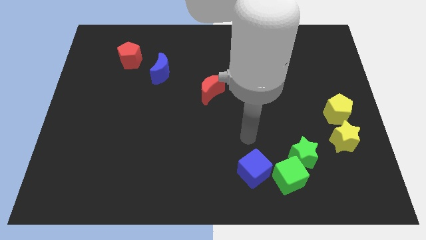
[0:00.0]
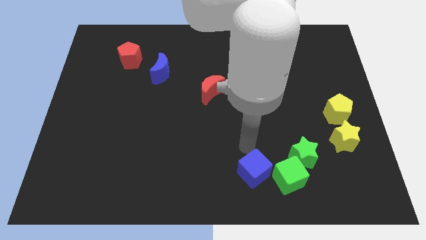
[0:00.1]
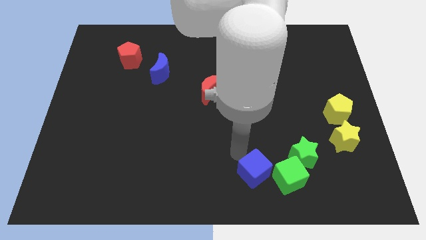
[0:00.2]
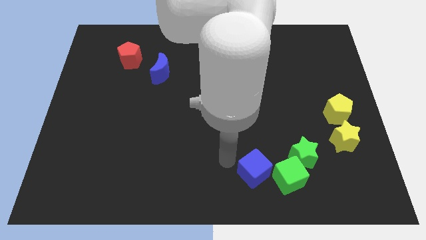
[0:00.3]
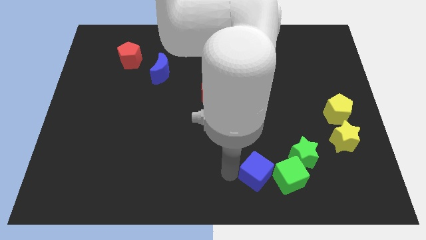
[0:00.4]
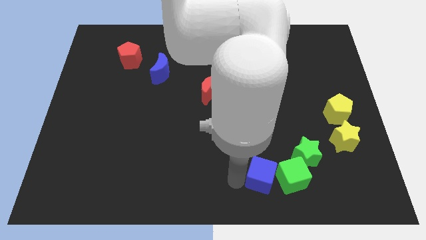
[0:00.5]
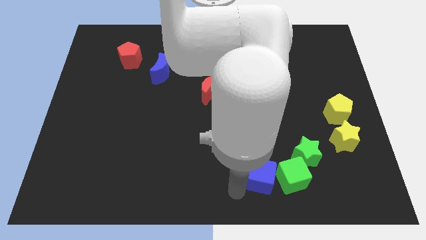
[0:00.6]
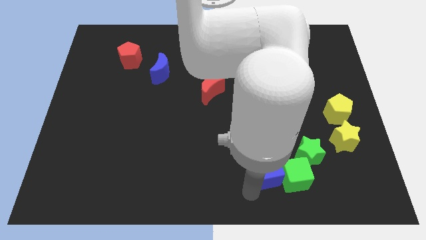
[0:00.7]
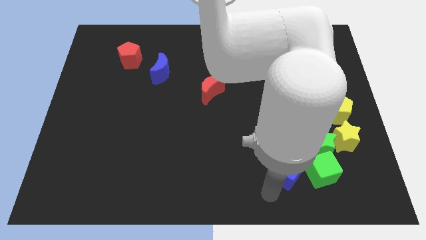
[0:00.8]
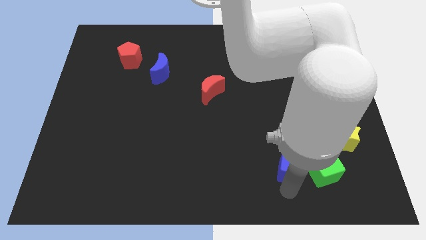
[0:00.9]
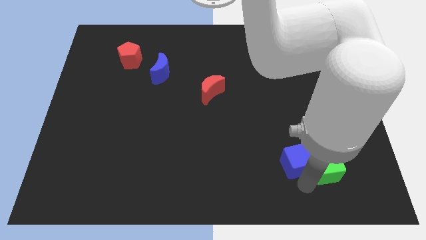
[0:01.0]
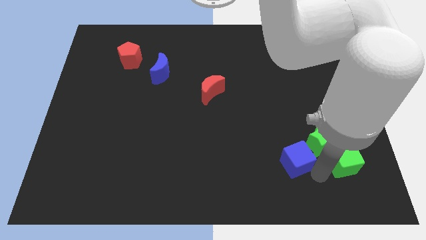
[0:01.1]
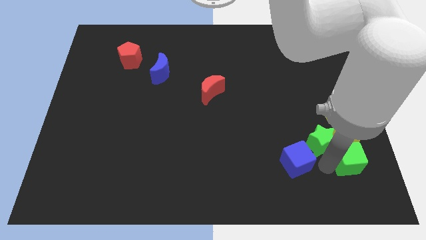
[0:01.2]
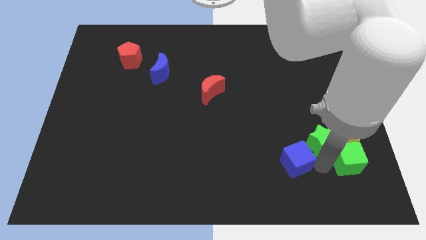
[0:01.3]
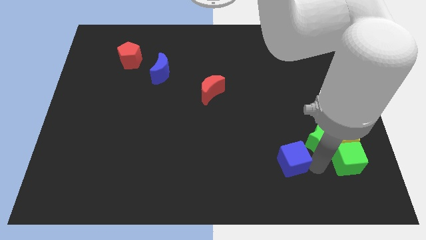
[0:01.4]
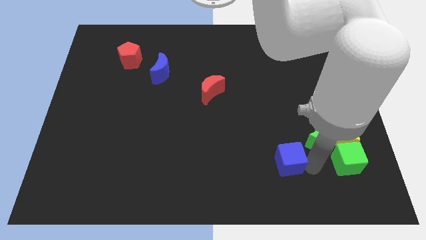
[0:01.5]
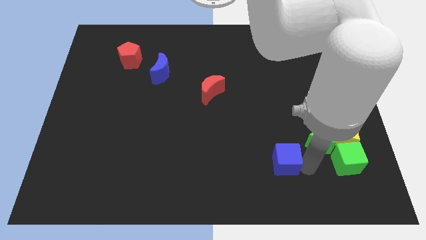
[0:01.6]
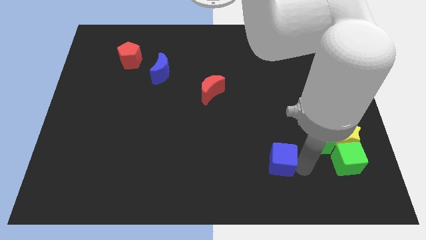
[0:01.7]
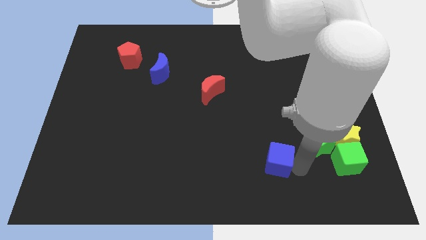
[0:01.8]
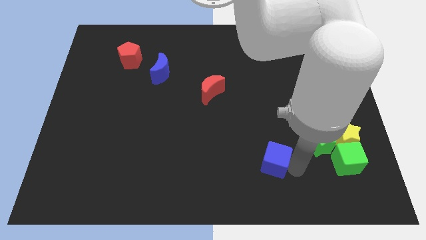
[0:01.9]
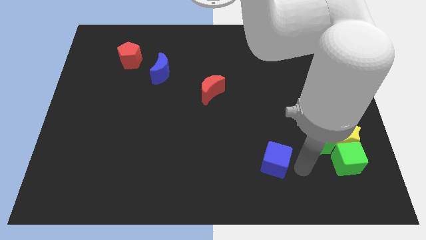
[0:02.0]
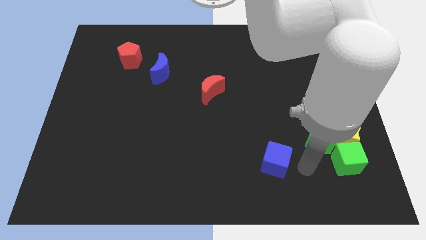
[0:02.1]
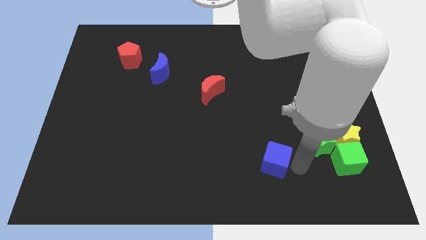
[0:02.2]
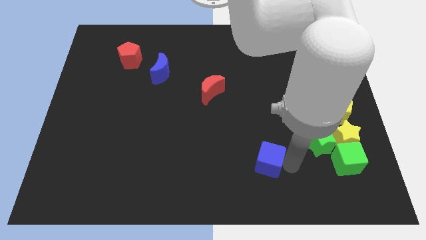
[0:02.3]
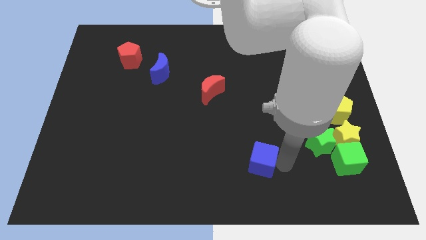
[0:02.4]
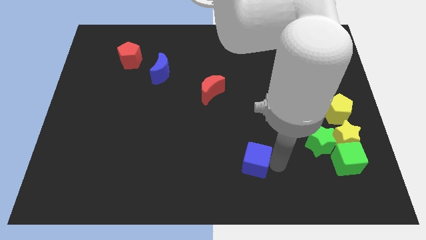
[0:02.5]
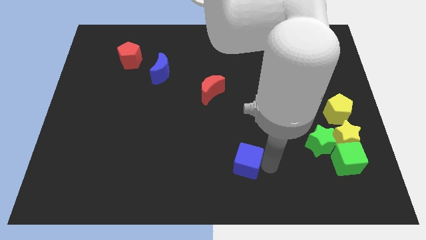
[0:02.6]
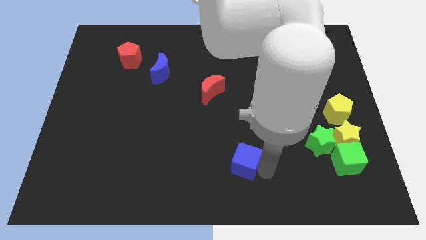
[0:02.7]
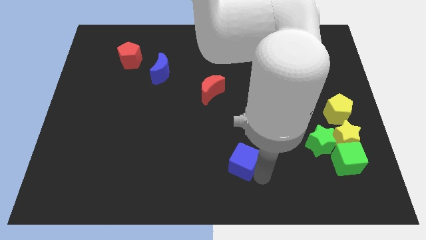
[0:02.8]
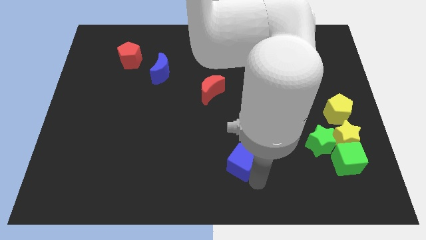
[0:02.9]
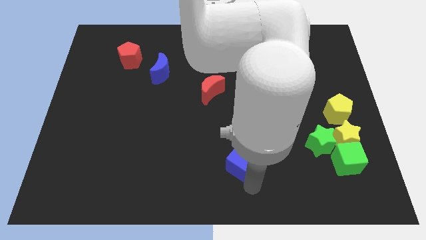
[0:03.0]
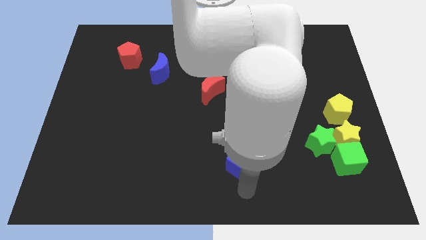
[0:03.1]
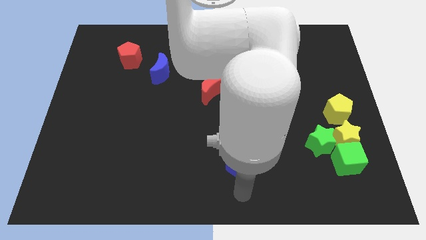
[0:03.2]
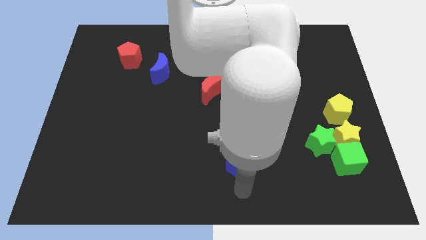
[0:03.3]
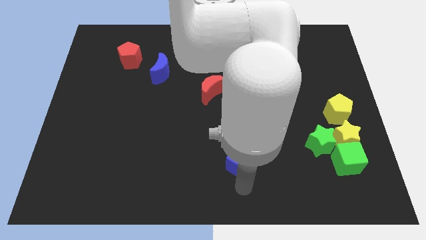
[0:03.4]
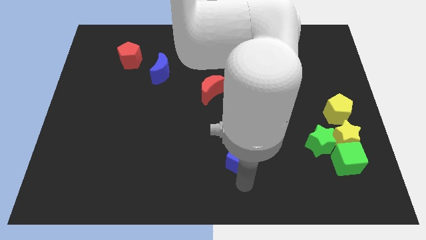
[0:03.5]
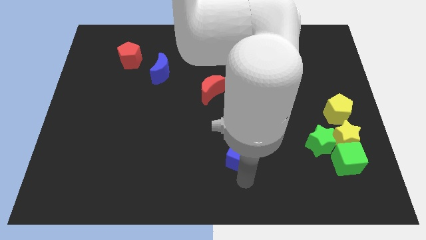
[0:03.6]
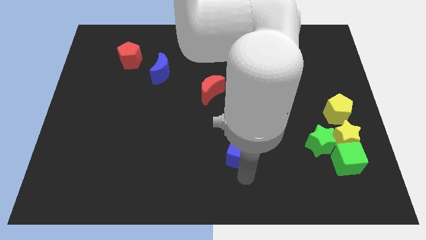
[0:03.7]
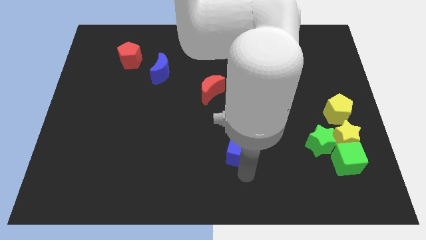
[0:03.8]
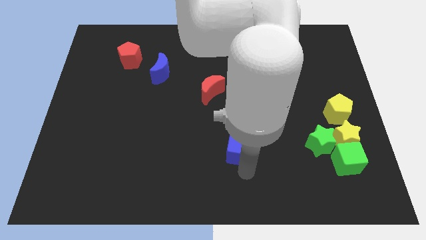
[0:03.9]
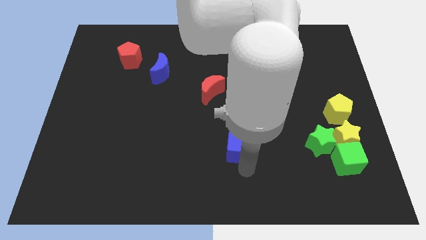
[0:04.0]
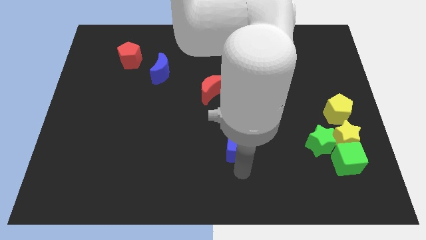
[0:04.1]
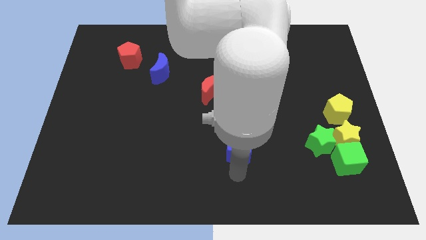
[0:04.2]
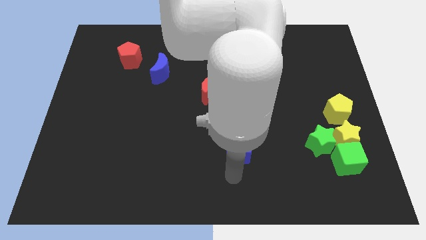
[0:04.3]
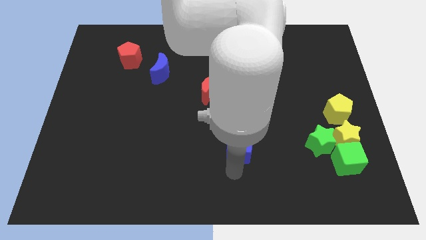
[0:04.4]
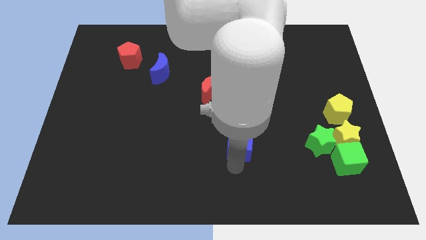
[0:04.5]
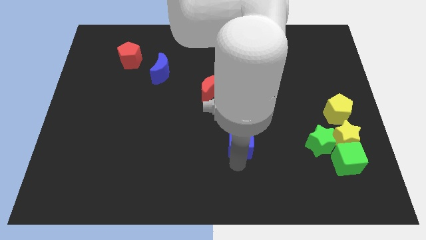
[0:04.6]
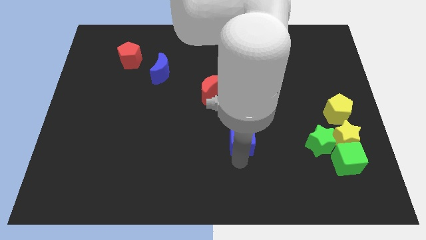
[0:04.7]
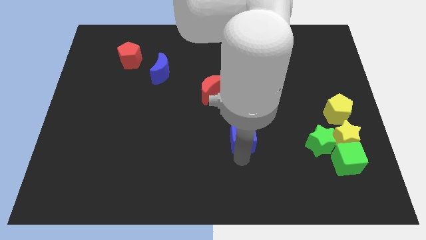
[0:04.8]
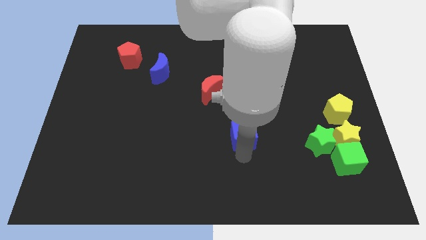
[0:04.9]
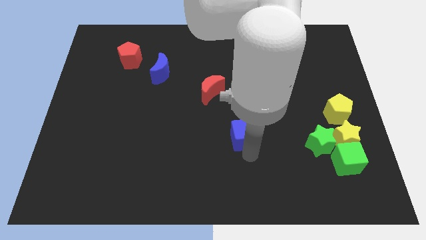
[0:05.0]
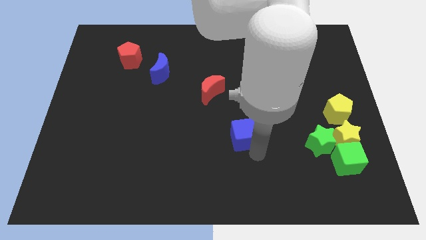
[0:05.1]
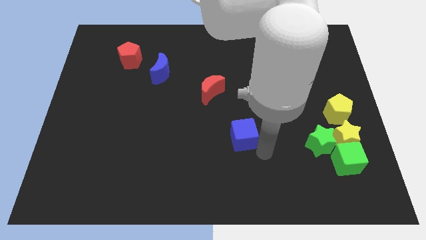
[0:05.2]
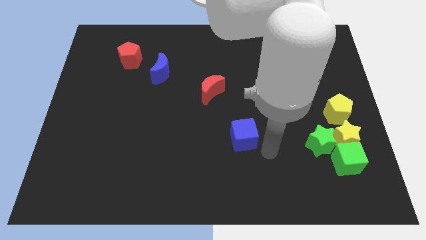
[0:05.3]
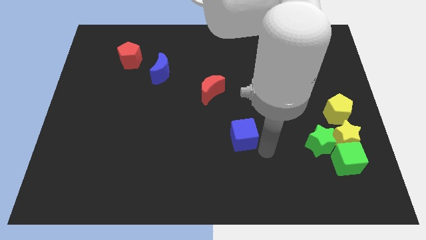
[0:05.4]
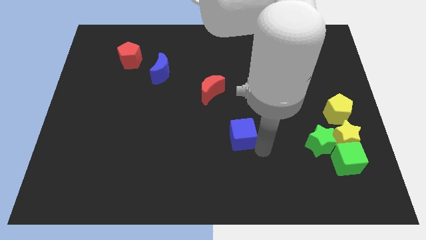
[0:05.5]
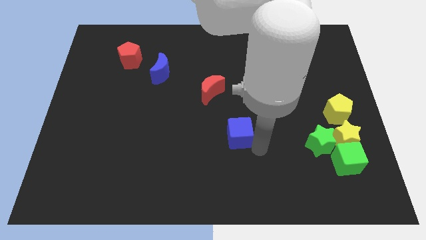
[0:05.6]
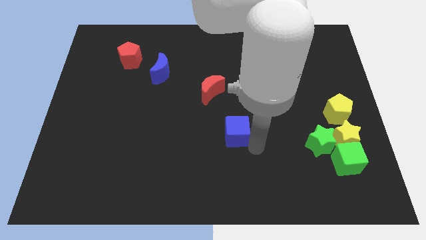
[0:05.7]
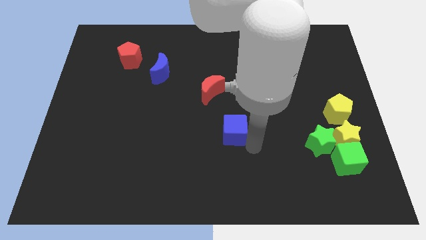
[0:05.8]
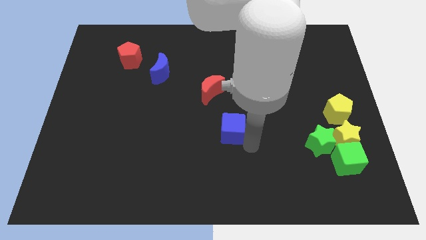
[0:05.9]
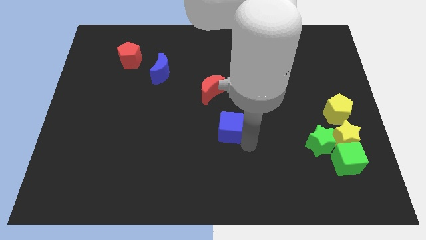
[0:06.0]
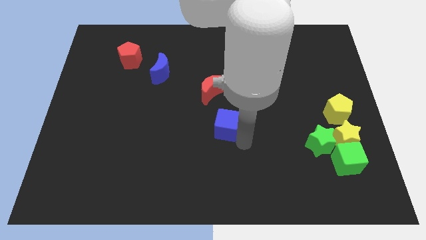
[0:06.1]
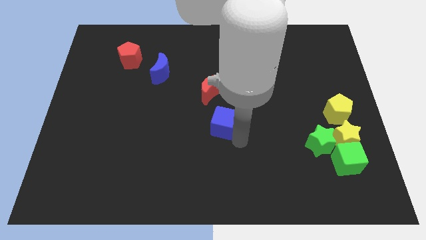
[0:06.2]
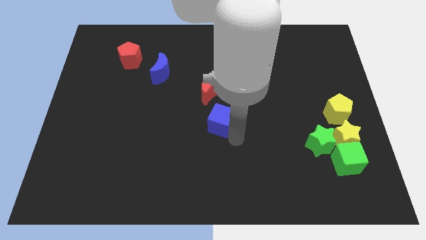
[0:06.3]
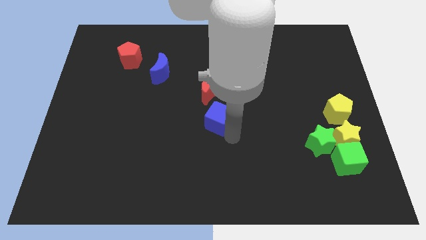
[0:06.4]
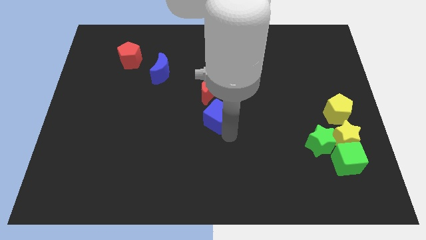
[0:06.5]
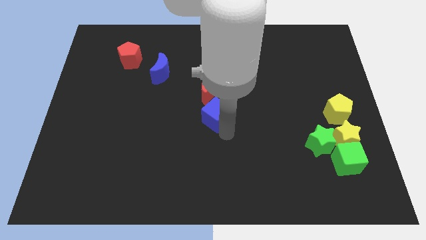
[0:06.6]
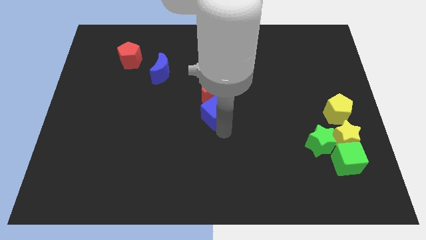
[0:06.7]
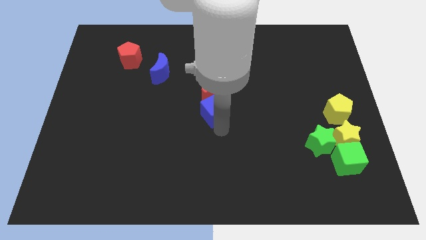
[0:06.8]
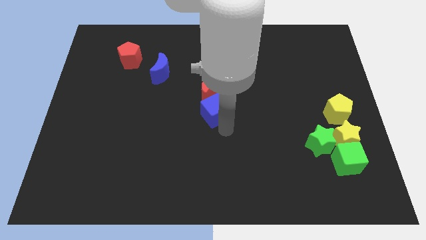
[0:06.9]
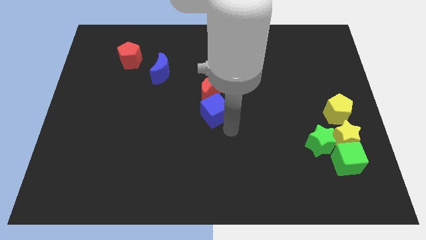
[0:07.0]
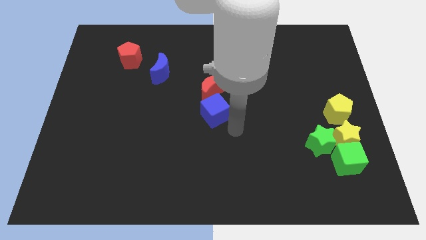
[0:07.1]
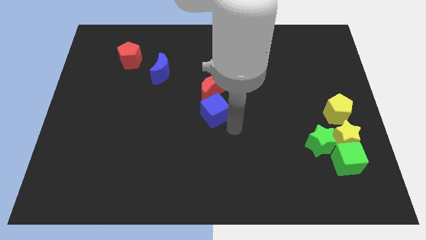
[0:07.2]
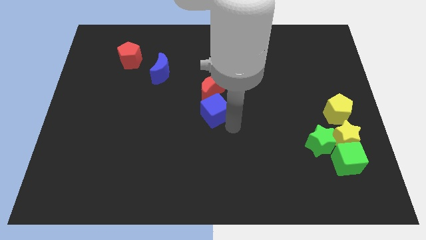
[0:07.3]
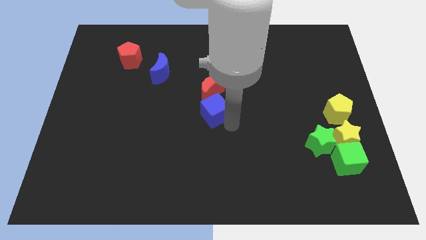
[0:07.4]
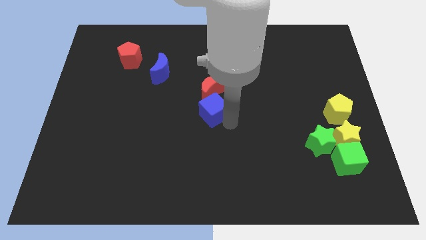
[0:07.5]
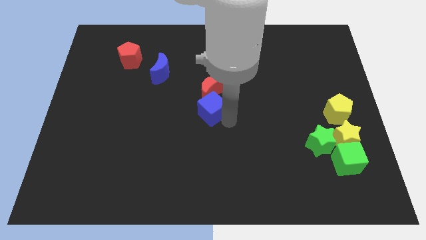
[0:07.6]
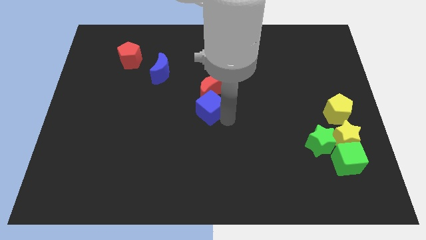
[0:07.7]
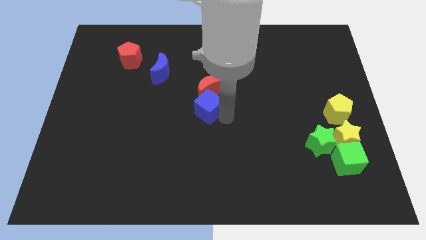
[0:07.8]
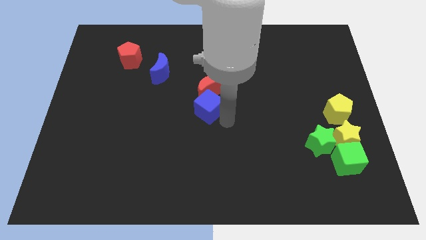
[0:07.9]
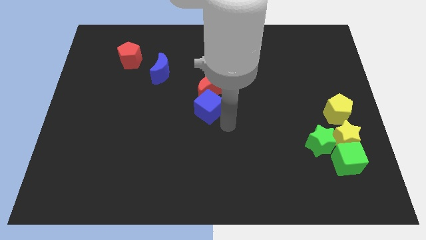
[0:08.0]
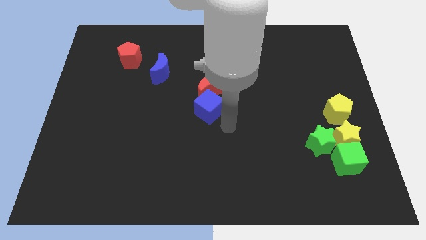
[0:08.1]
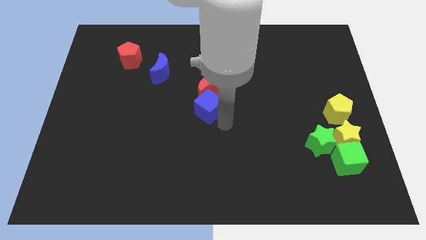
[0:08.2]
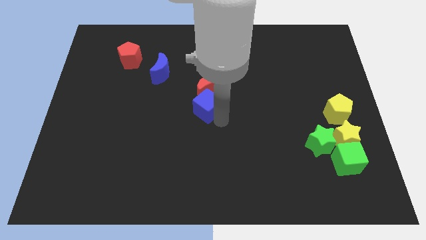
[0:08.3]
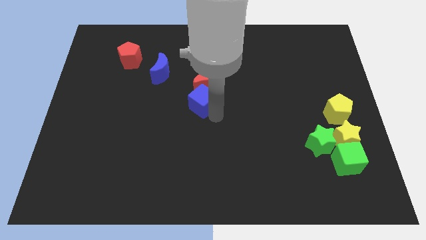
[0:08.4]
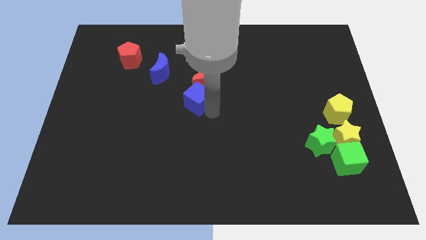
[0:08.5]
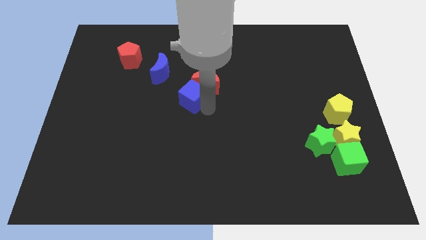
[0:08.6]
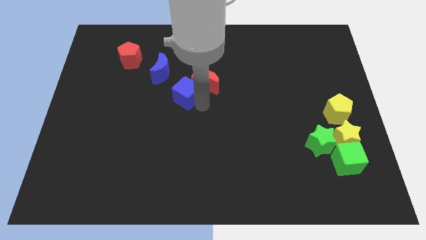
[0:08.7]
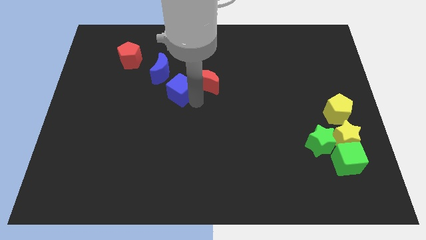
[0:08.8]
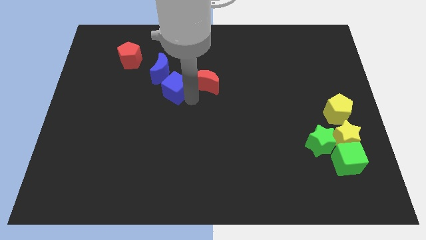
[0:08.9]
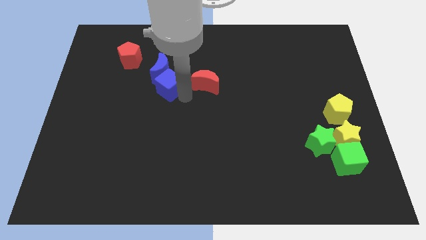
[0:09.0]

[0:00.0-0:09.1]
push the blue cube next to the blue moon
